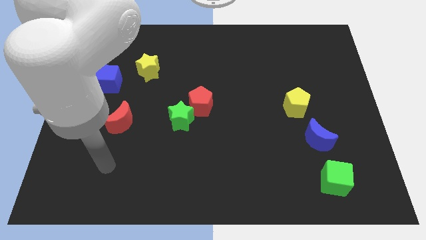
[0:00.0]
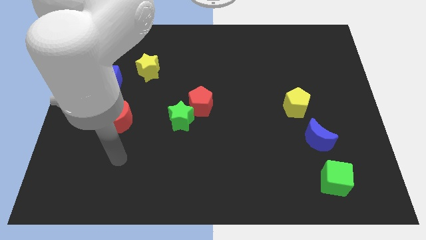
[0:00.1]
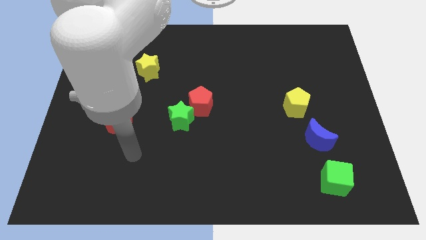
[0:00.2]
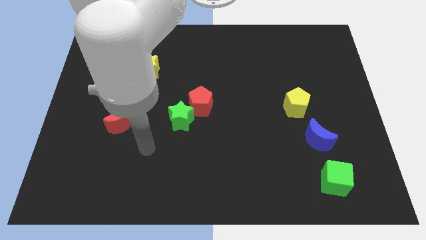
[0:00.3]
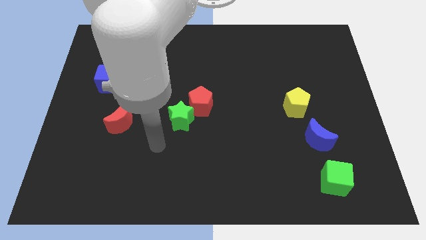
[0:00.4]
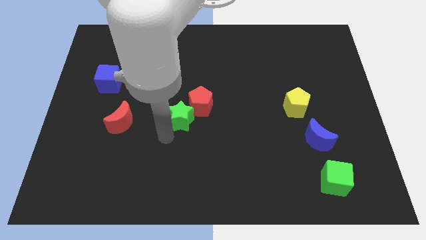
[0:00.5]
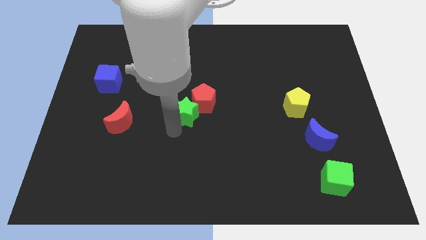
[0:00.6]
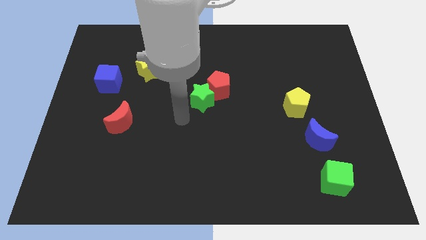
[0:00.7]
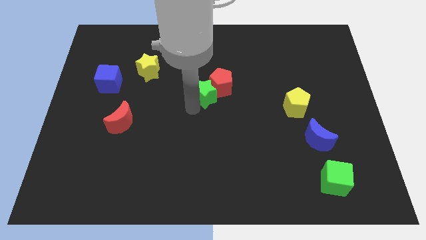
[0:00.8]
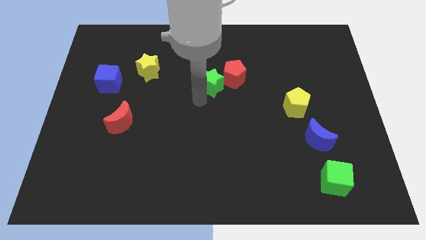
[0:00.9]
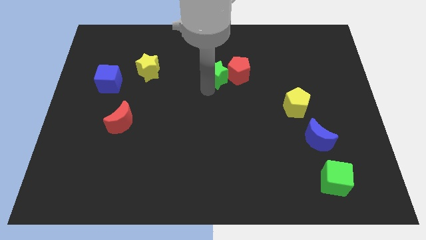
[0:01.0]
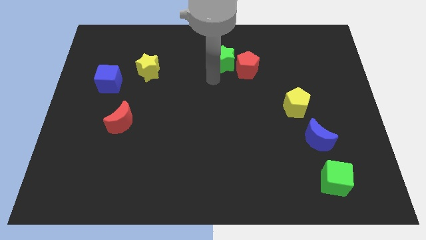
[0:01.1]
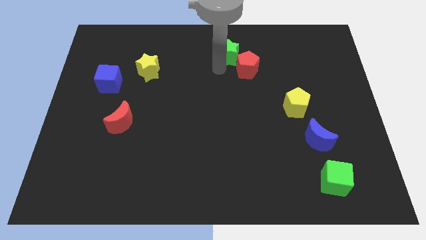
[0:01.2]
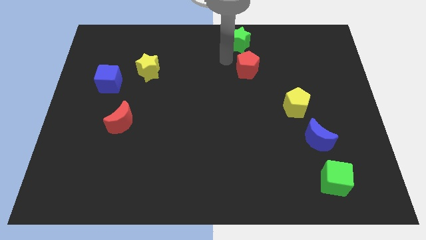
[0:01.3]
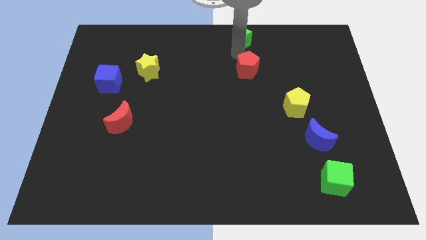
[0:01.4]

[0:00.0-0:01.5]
move the red pentagon away from the green star

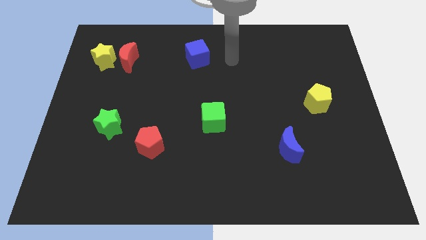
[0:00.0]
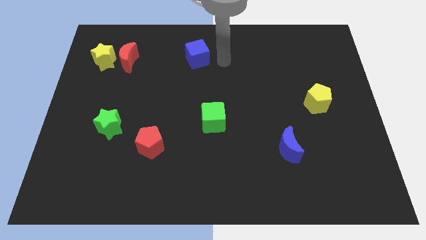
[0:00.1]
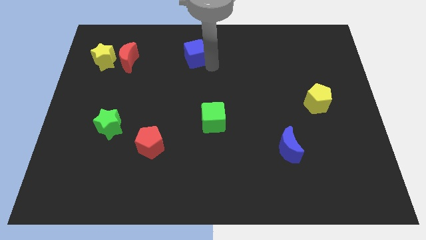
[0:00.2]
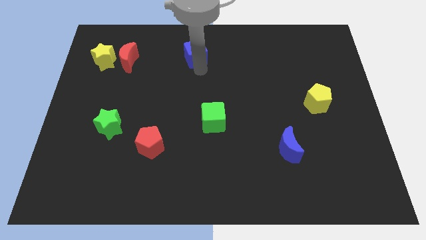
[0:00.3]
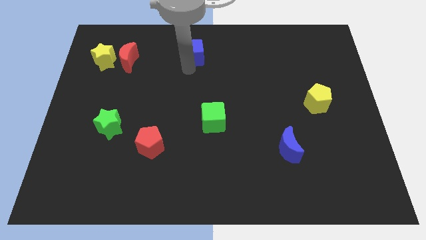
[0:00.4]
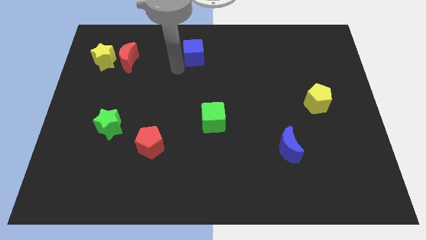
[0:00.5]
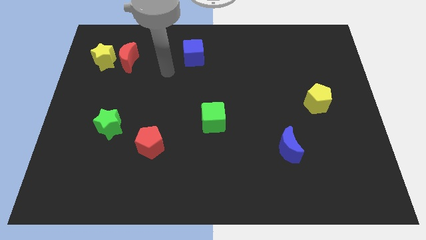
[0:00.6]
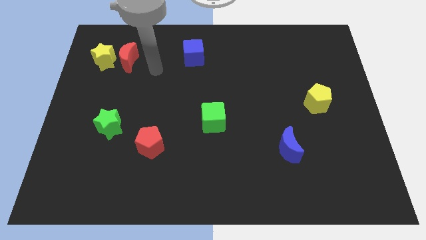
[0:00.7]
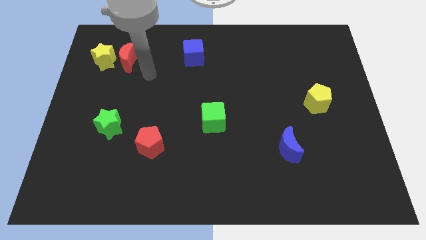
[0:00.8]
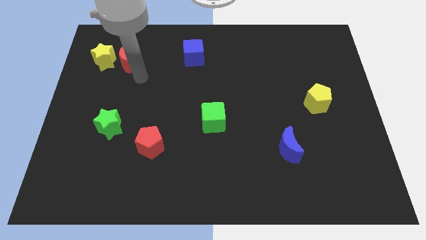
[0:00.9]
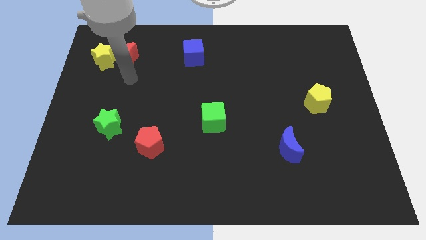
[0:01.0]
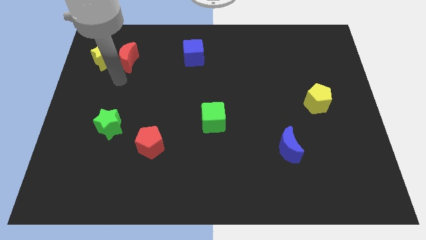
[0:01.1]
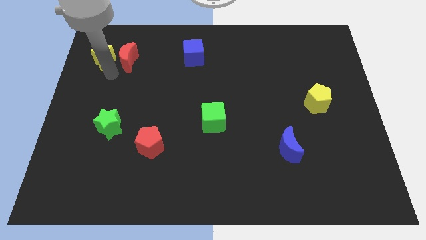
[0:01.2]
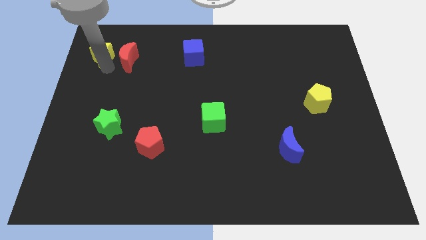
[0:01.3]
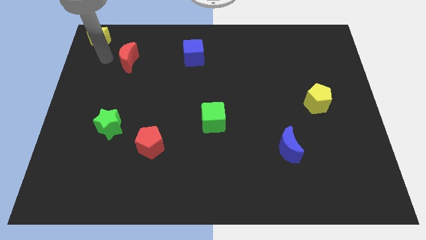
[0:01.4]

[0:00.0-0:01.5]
pull the red moon apart from the yellow star

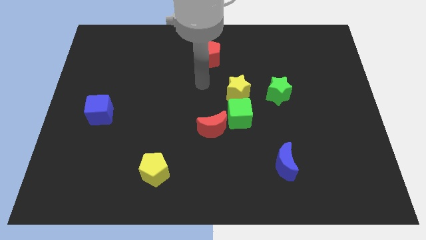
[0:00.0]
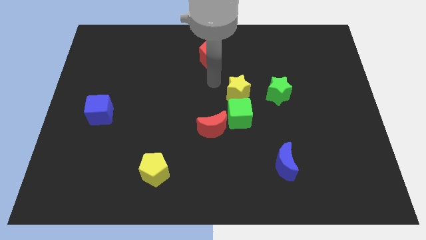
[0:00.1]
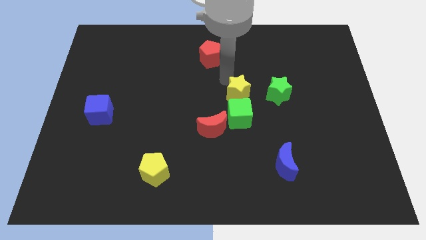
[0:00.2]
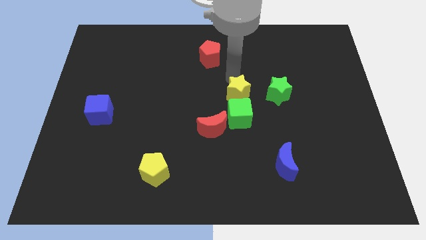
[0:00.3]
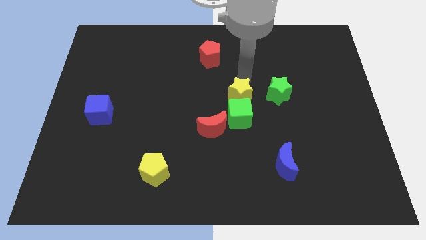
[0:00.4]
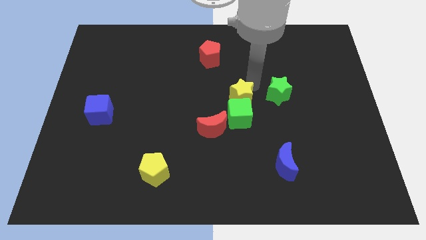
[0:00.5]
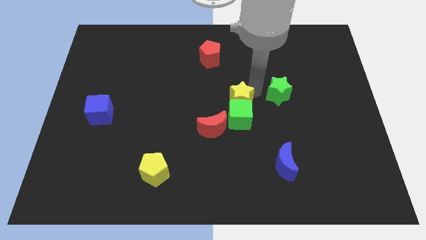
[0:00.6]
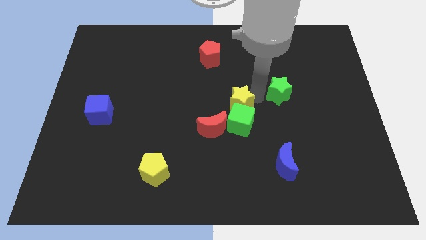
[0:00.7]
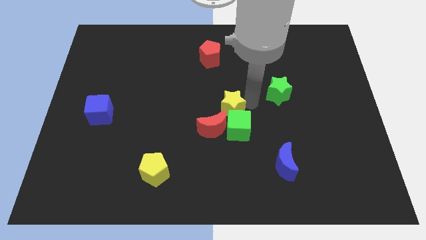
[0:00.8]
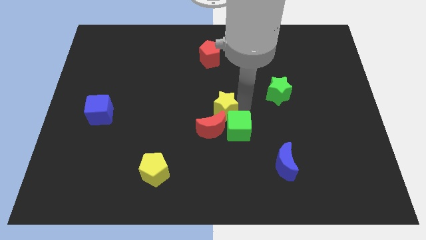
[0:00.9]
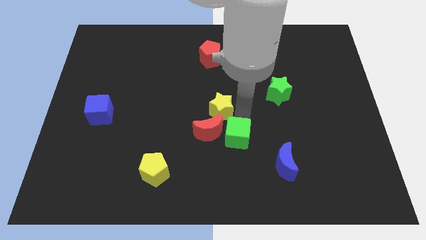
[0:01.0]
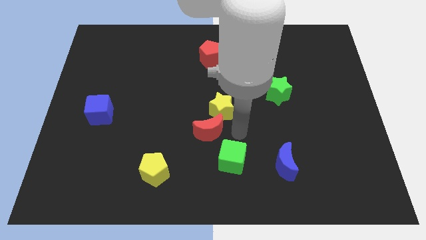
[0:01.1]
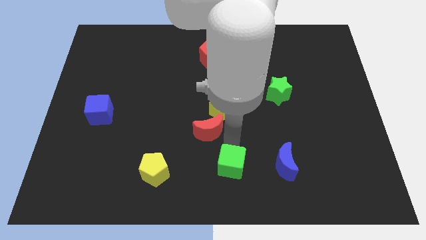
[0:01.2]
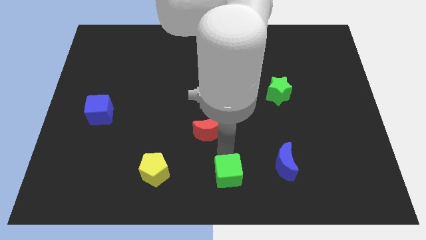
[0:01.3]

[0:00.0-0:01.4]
separate the red moon from the green cube

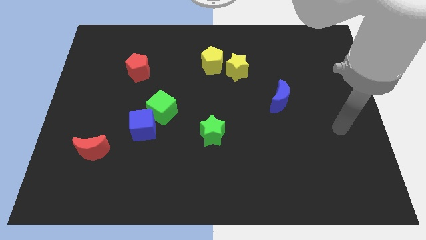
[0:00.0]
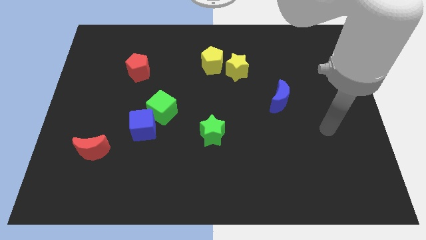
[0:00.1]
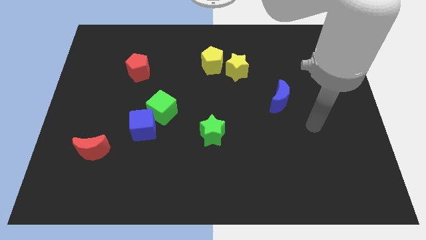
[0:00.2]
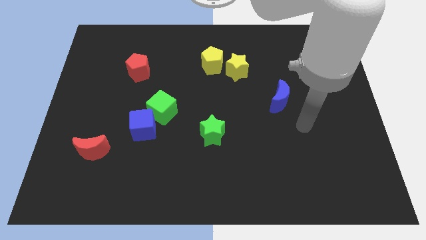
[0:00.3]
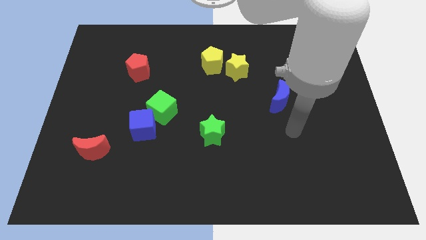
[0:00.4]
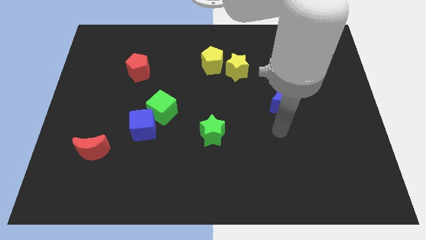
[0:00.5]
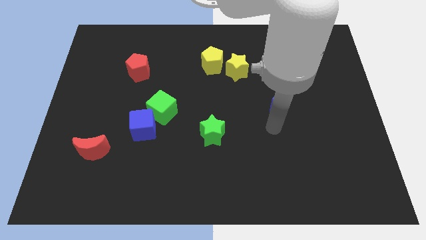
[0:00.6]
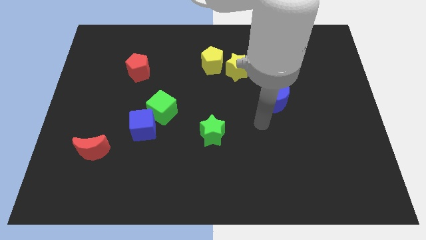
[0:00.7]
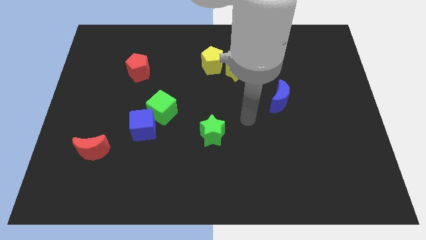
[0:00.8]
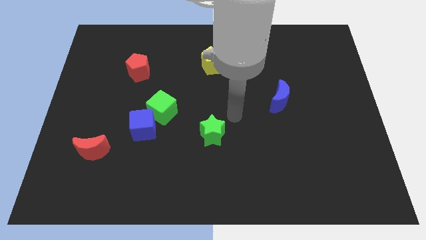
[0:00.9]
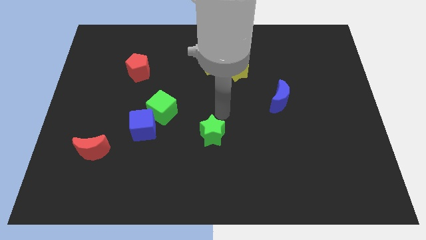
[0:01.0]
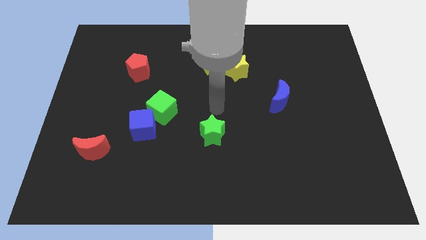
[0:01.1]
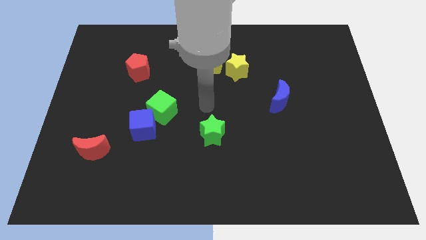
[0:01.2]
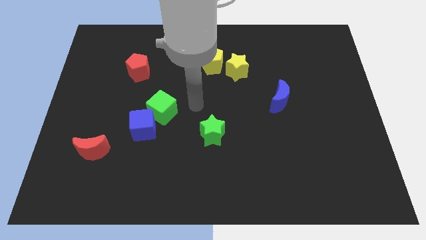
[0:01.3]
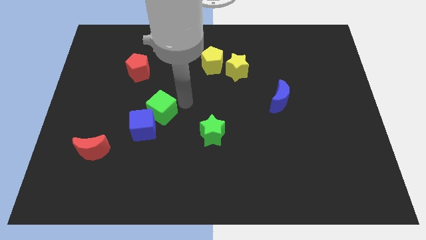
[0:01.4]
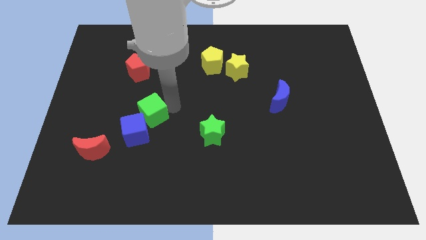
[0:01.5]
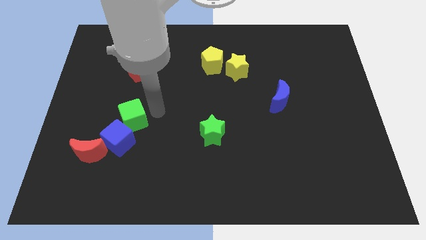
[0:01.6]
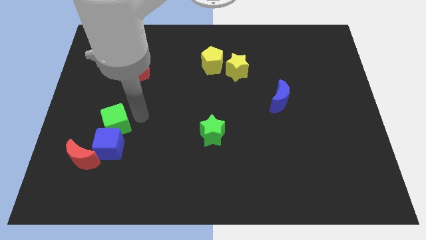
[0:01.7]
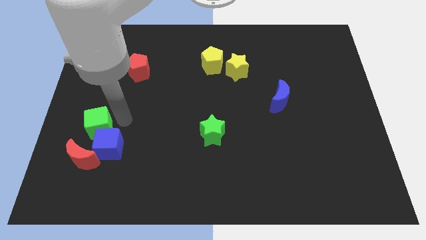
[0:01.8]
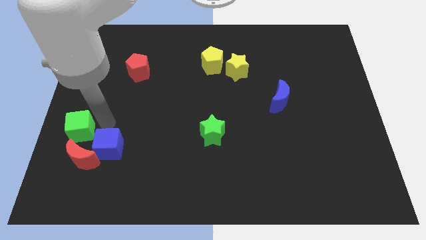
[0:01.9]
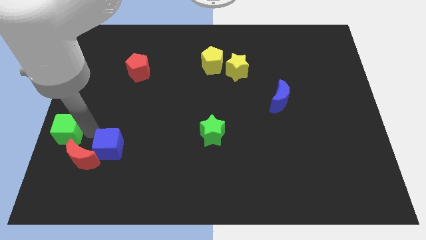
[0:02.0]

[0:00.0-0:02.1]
move the blue cube away from the green cube

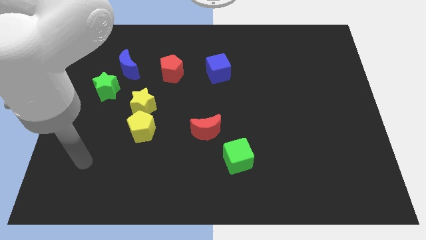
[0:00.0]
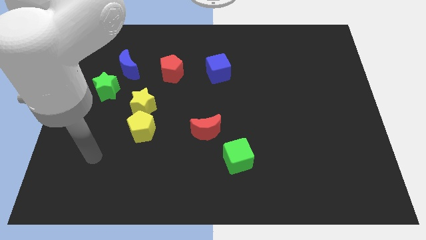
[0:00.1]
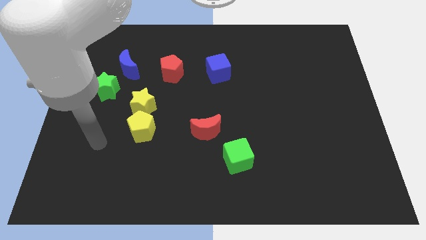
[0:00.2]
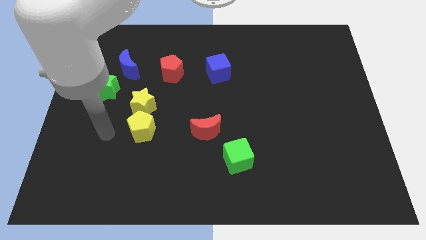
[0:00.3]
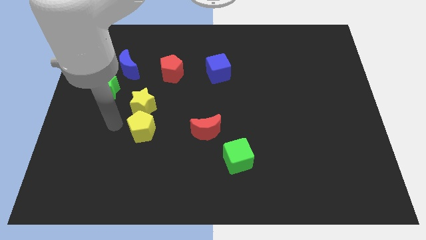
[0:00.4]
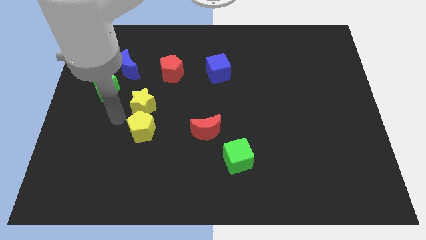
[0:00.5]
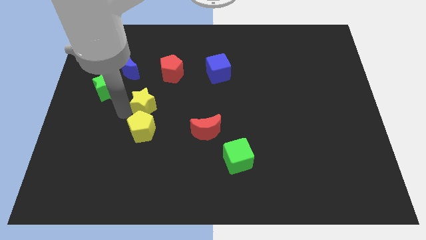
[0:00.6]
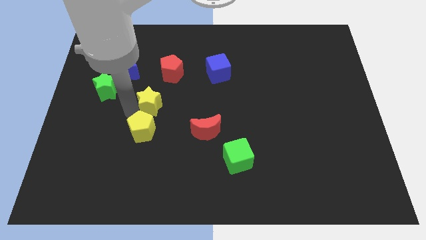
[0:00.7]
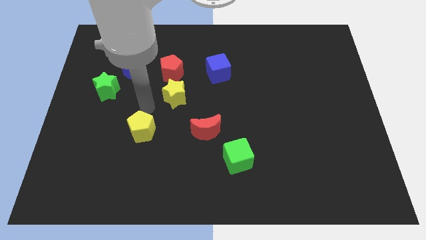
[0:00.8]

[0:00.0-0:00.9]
pull the yellow pentagon apart from the yellow star

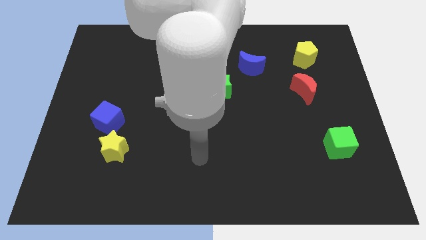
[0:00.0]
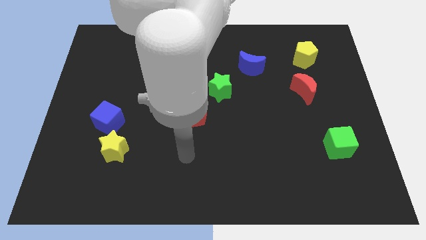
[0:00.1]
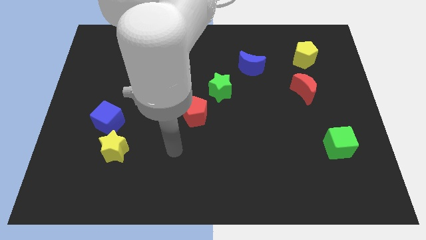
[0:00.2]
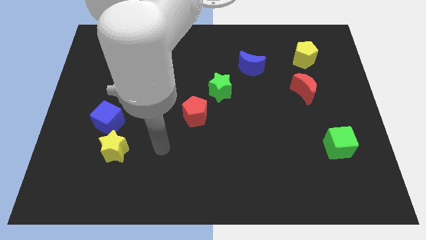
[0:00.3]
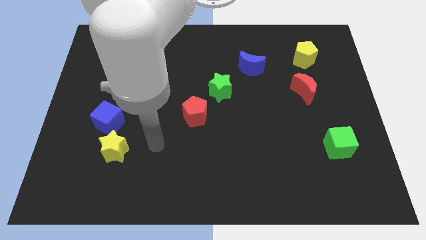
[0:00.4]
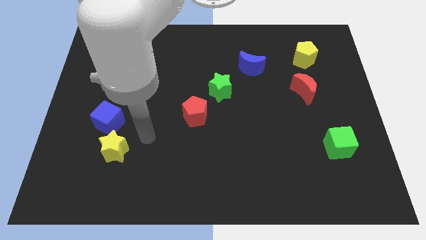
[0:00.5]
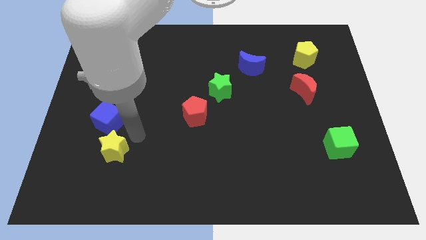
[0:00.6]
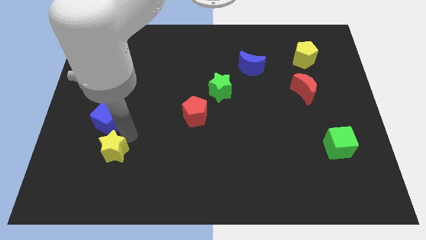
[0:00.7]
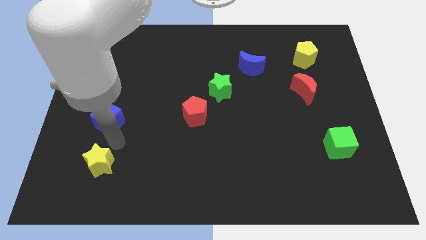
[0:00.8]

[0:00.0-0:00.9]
pull the blue cube apart from the yellow star

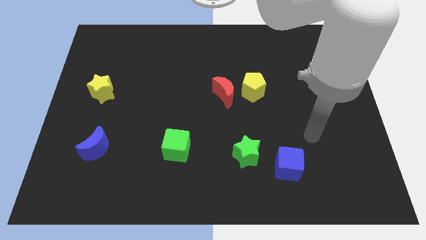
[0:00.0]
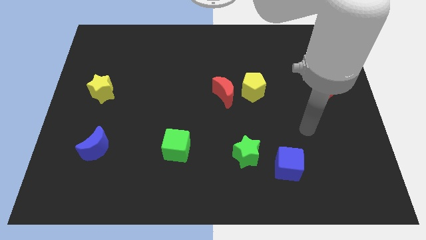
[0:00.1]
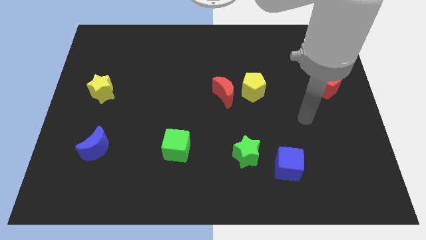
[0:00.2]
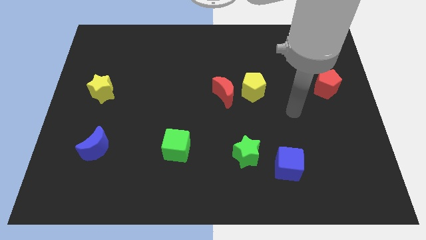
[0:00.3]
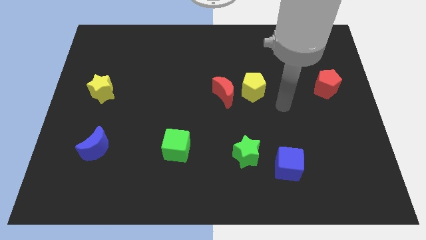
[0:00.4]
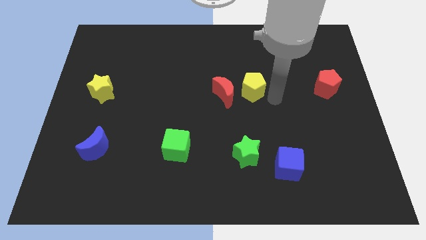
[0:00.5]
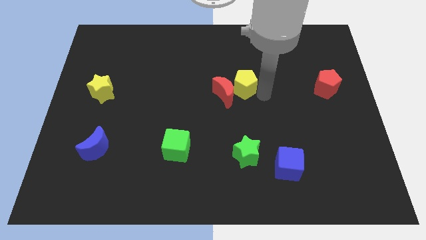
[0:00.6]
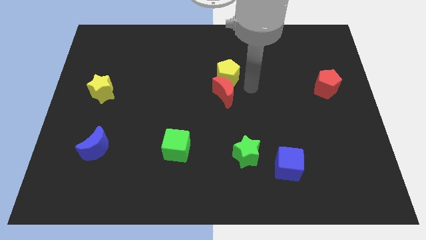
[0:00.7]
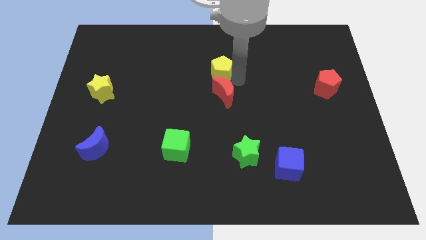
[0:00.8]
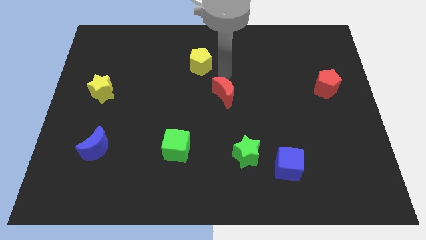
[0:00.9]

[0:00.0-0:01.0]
move the red moon away from the yellow pentagon
